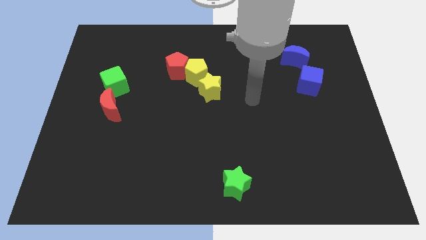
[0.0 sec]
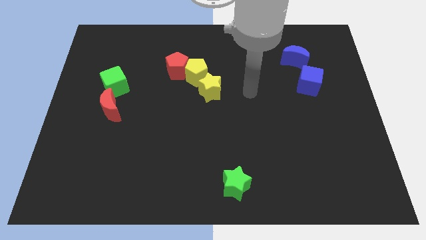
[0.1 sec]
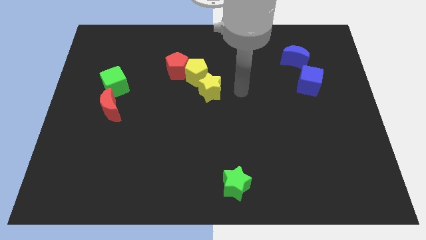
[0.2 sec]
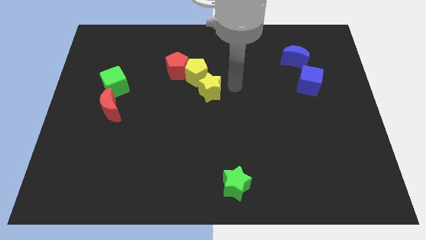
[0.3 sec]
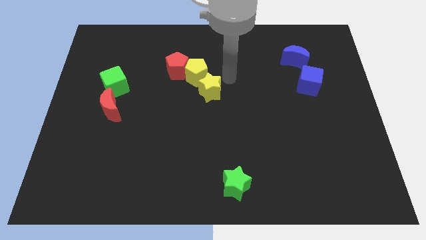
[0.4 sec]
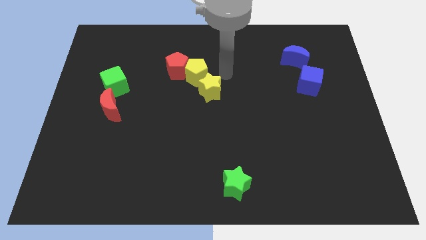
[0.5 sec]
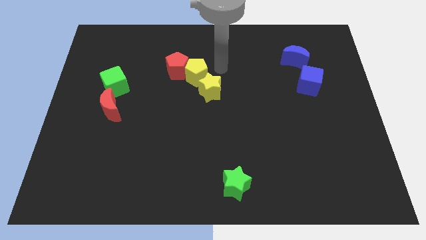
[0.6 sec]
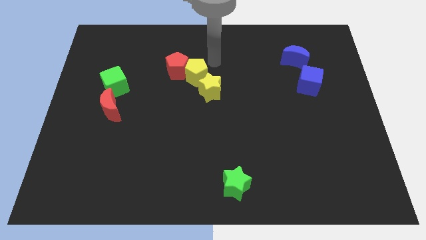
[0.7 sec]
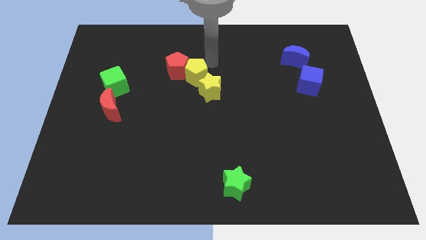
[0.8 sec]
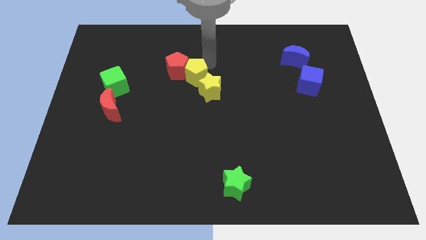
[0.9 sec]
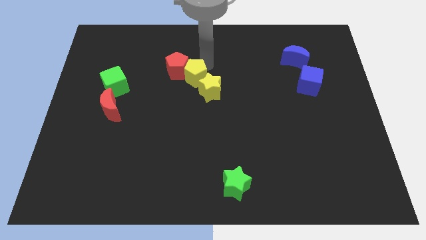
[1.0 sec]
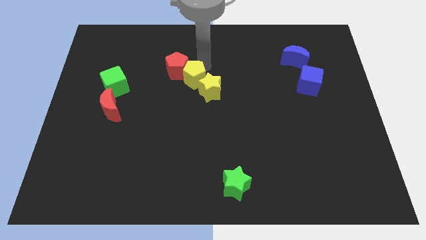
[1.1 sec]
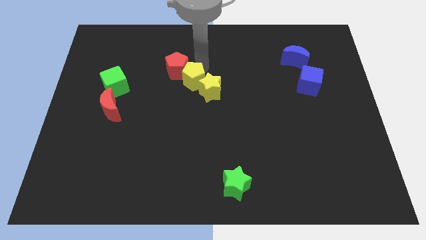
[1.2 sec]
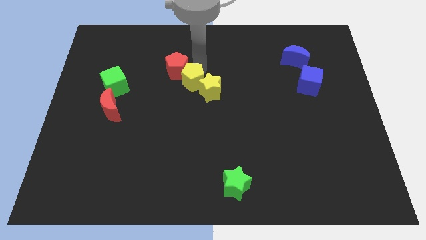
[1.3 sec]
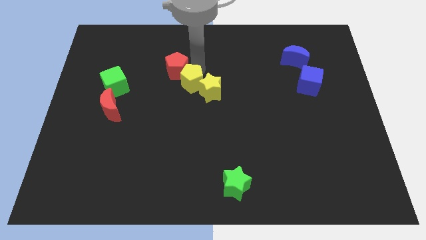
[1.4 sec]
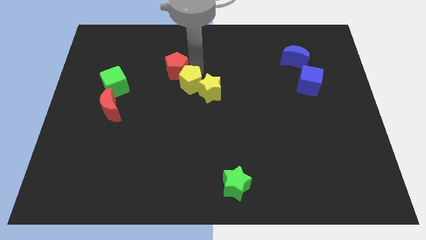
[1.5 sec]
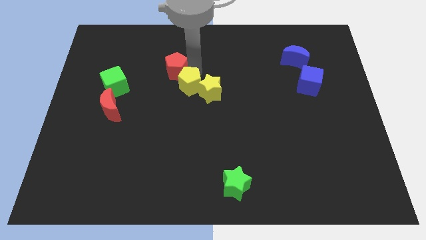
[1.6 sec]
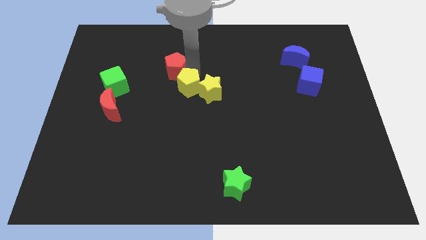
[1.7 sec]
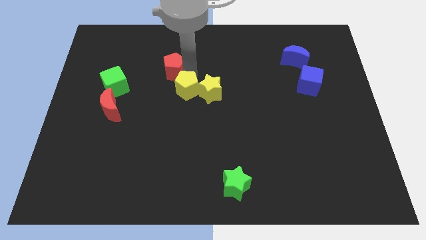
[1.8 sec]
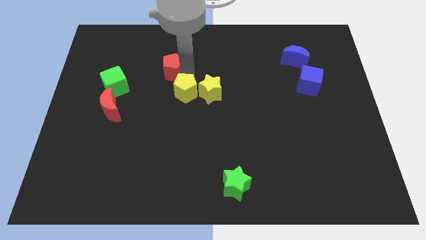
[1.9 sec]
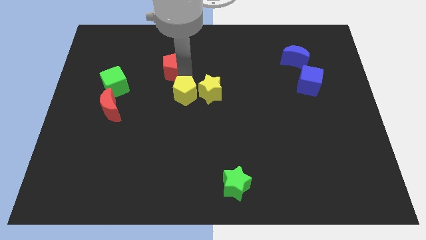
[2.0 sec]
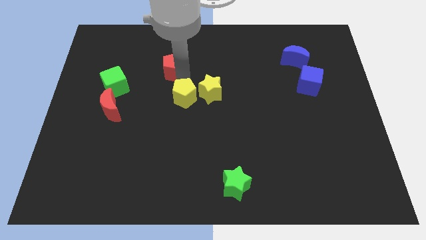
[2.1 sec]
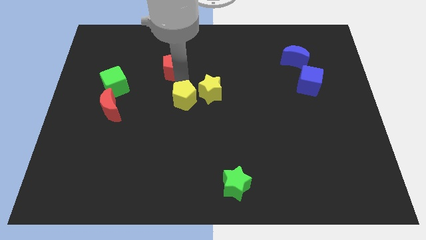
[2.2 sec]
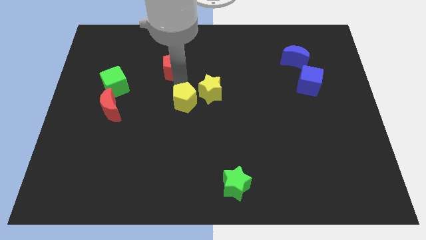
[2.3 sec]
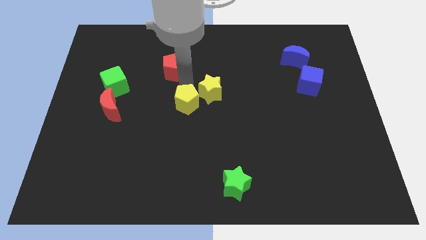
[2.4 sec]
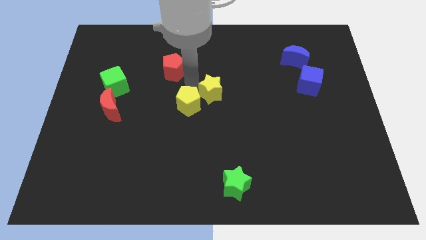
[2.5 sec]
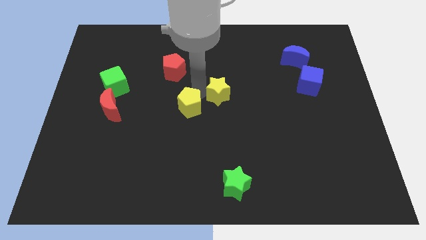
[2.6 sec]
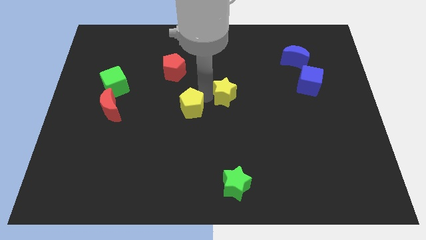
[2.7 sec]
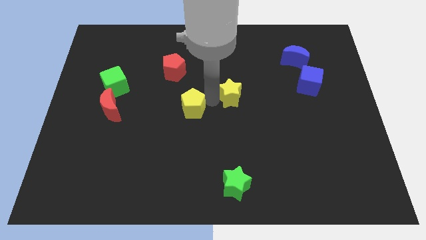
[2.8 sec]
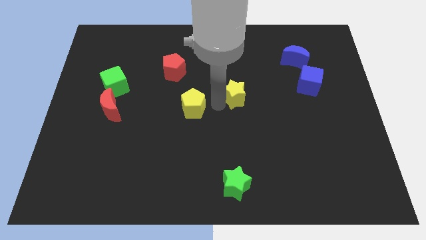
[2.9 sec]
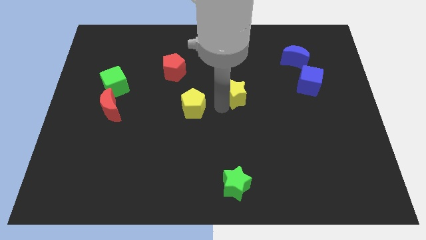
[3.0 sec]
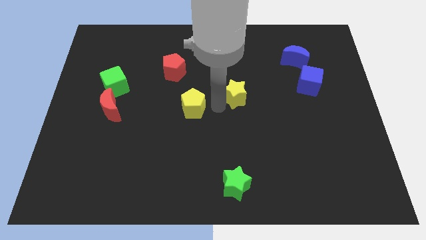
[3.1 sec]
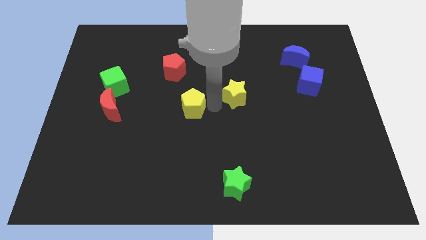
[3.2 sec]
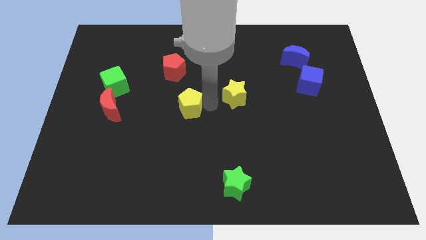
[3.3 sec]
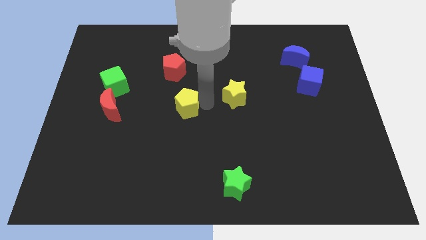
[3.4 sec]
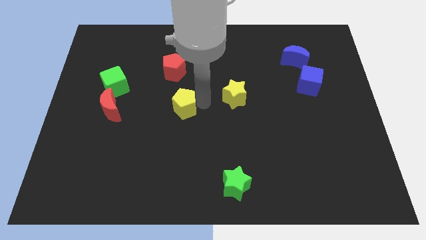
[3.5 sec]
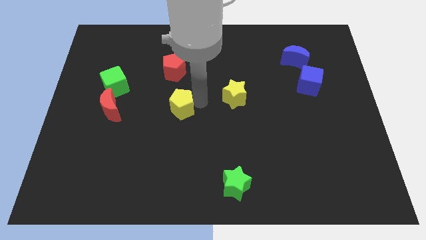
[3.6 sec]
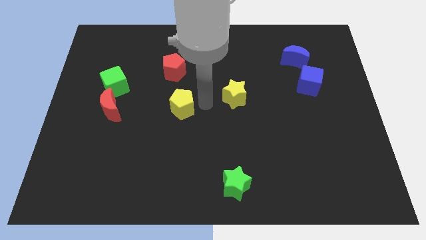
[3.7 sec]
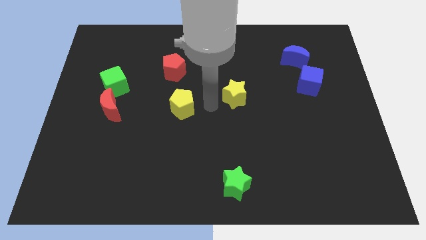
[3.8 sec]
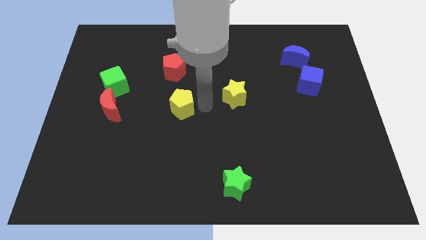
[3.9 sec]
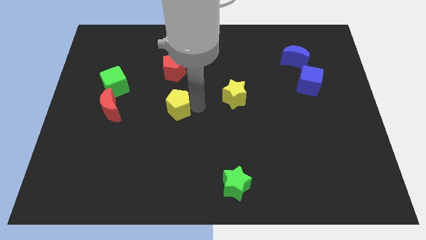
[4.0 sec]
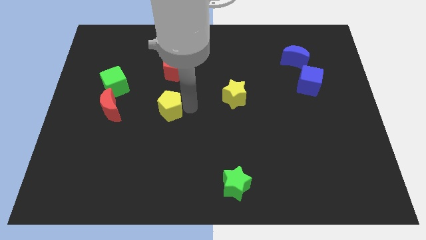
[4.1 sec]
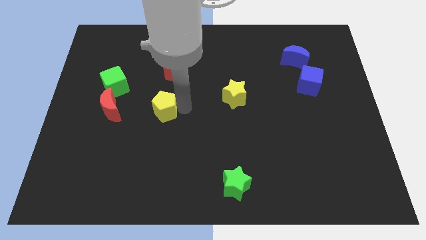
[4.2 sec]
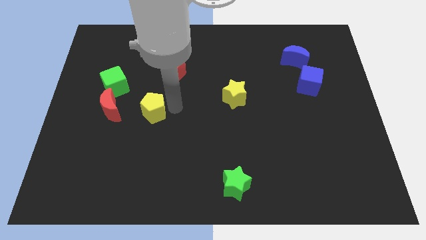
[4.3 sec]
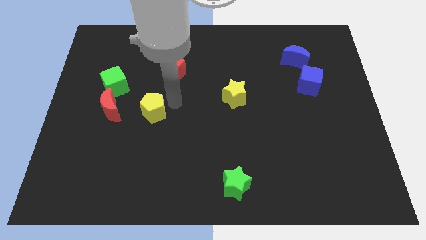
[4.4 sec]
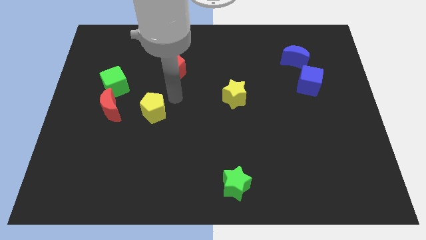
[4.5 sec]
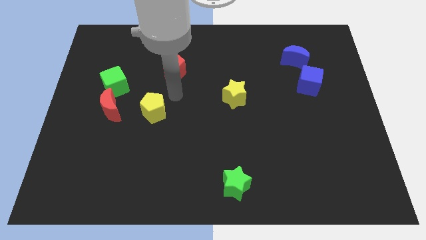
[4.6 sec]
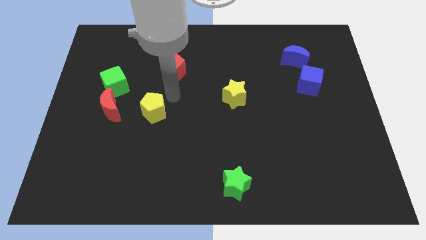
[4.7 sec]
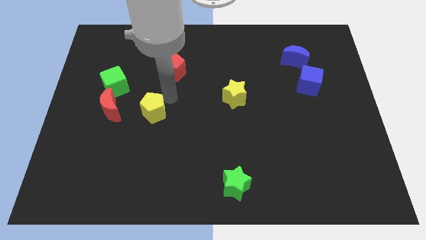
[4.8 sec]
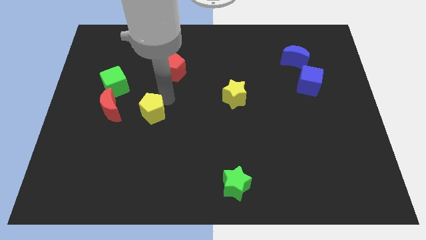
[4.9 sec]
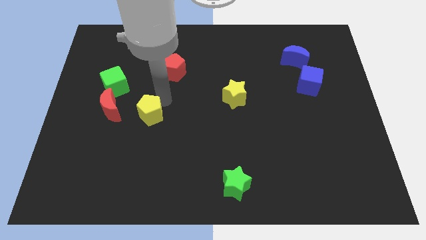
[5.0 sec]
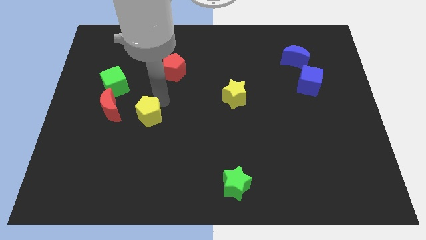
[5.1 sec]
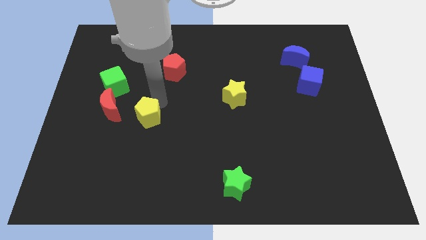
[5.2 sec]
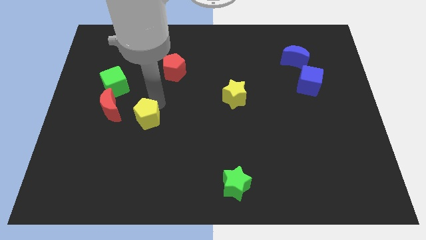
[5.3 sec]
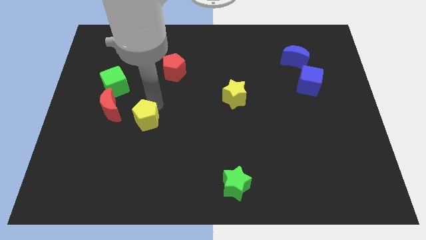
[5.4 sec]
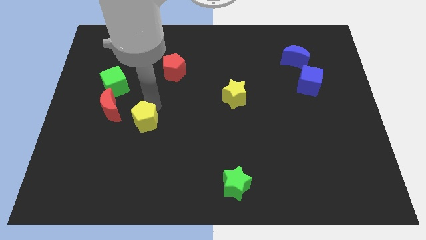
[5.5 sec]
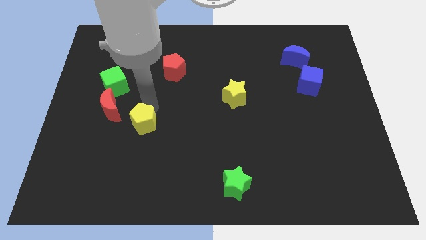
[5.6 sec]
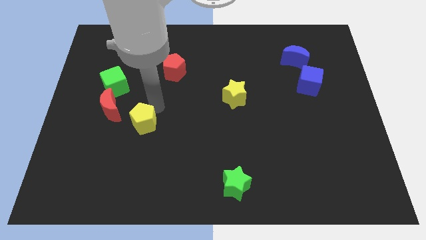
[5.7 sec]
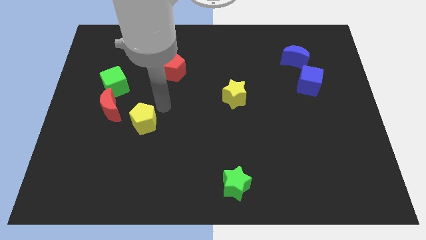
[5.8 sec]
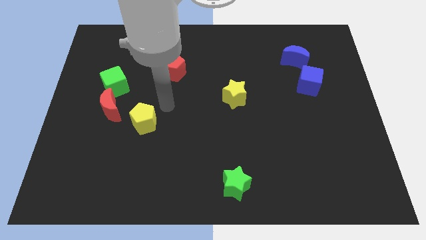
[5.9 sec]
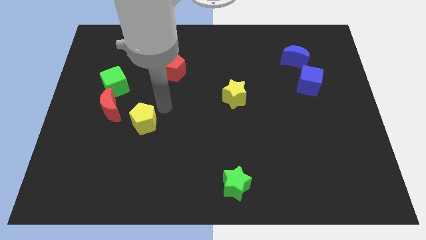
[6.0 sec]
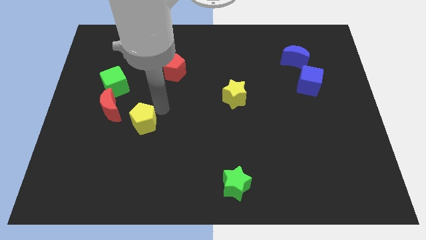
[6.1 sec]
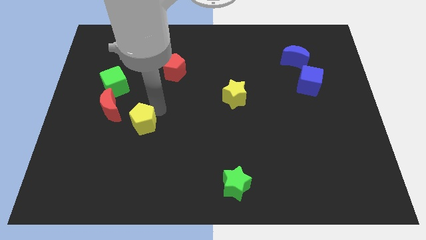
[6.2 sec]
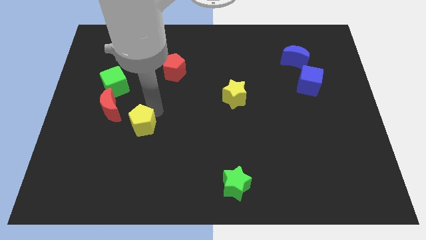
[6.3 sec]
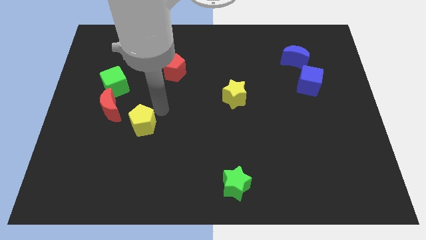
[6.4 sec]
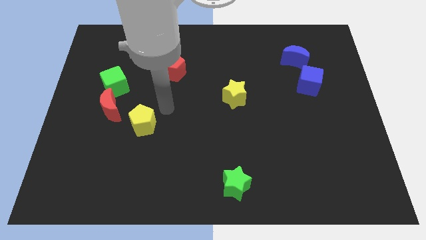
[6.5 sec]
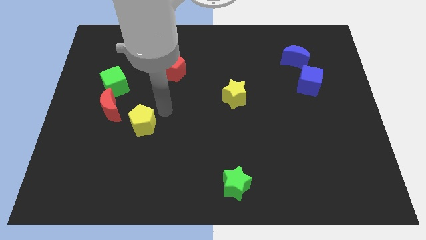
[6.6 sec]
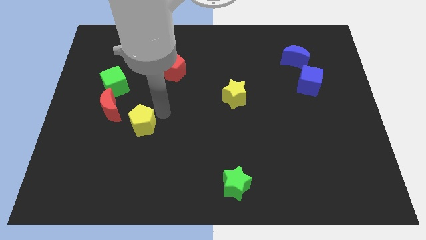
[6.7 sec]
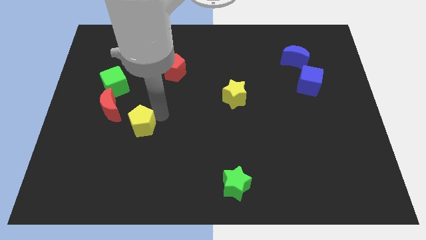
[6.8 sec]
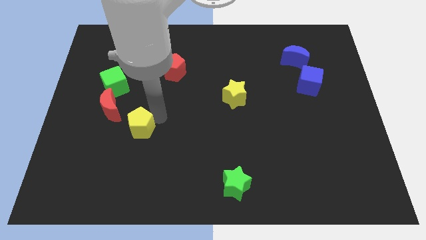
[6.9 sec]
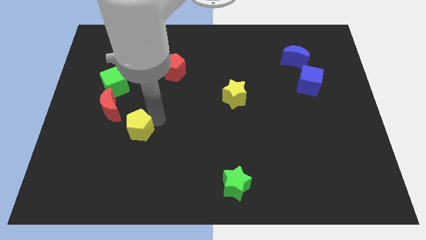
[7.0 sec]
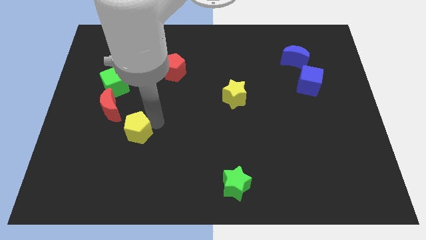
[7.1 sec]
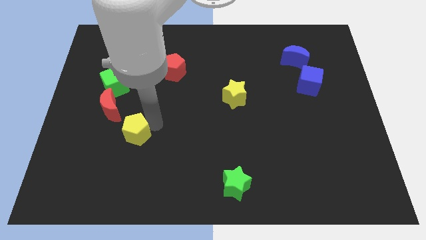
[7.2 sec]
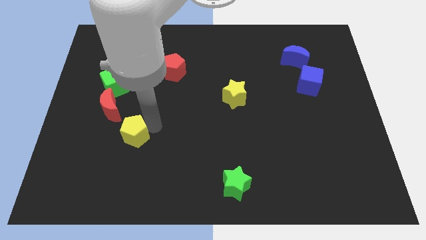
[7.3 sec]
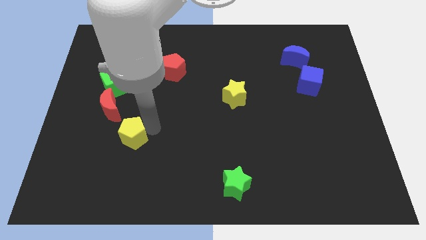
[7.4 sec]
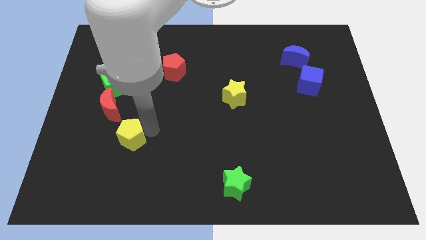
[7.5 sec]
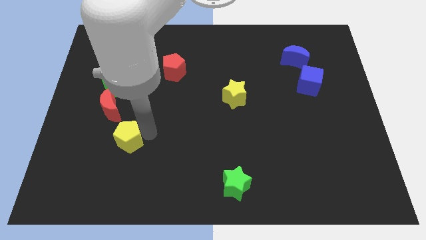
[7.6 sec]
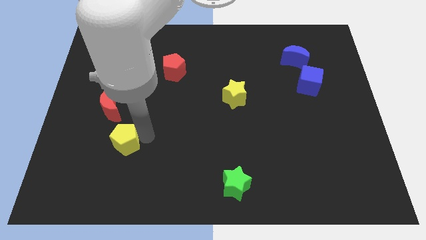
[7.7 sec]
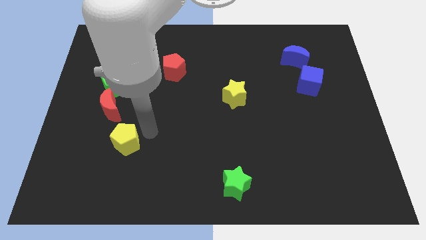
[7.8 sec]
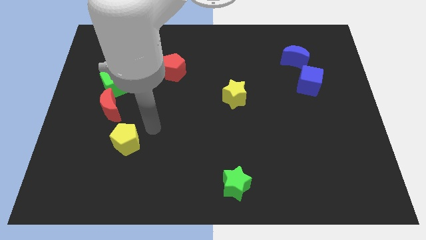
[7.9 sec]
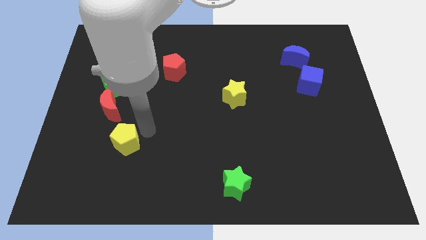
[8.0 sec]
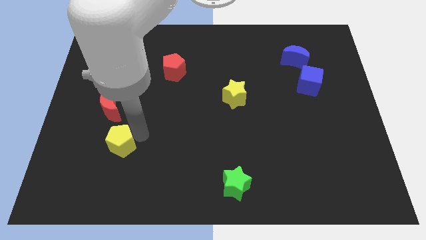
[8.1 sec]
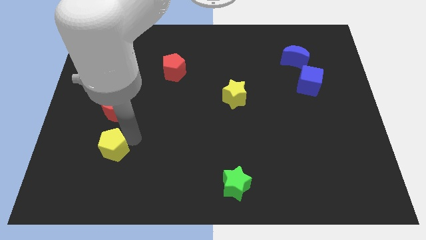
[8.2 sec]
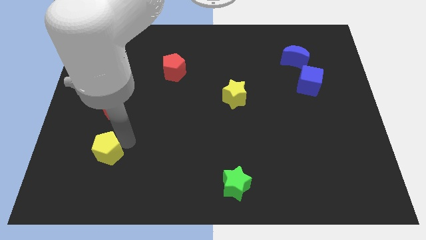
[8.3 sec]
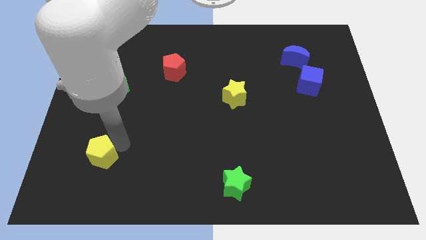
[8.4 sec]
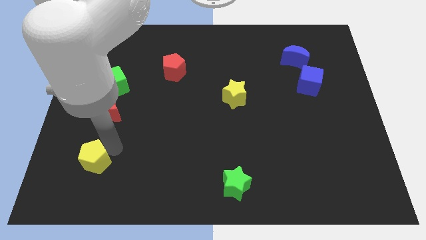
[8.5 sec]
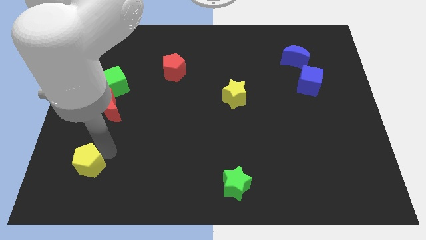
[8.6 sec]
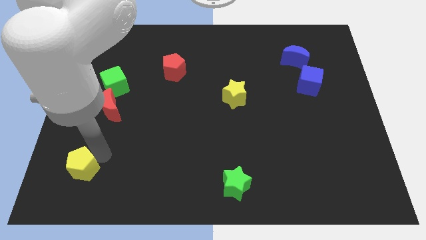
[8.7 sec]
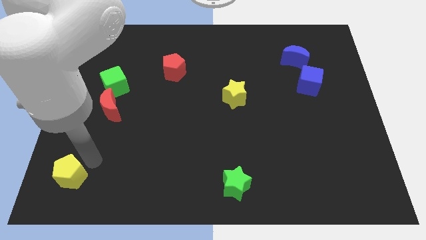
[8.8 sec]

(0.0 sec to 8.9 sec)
put the yellow pentagon to the bottom left of the board
